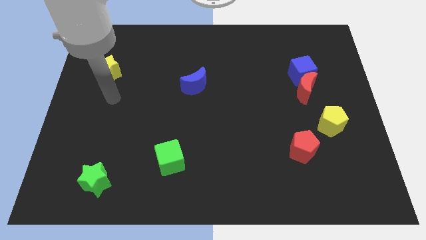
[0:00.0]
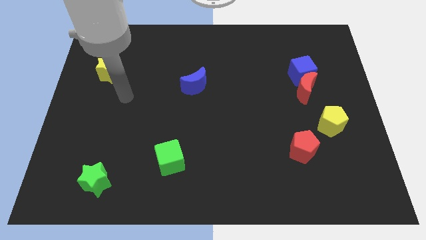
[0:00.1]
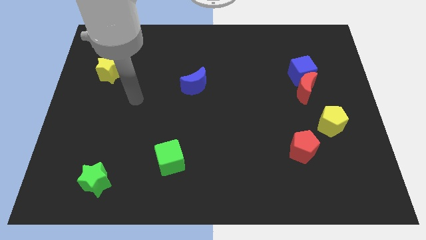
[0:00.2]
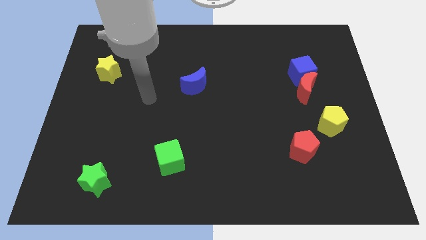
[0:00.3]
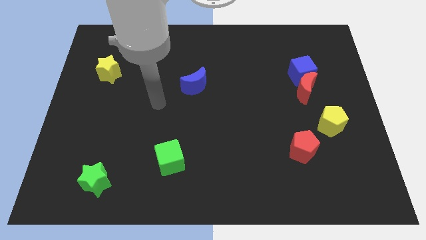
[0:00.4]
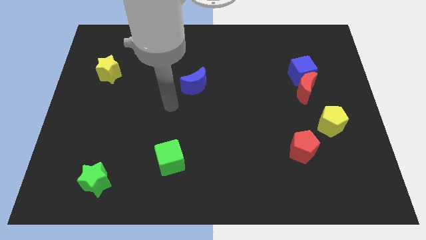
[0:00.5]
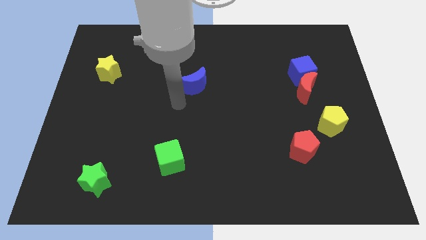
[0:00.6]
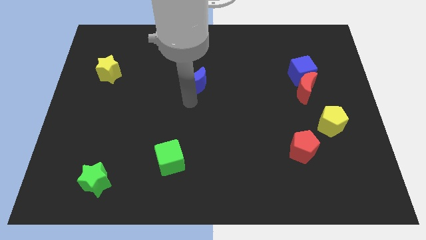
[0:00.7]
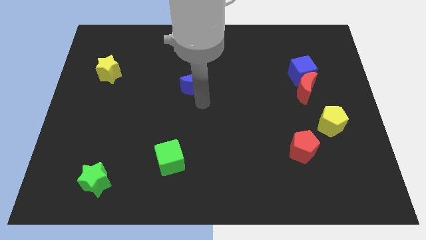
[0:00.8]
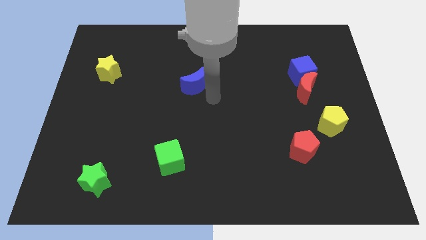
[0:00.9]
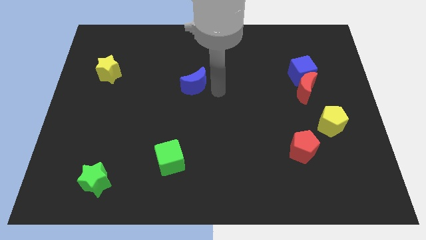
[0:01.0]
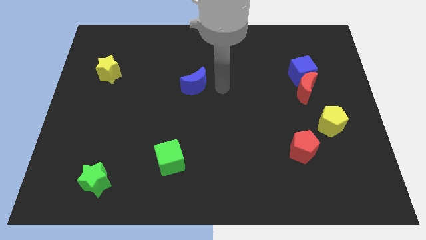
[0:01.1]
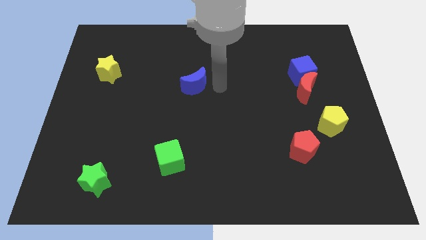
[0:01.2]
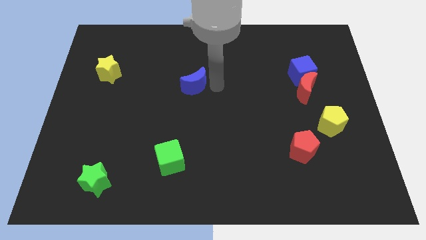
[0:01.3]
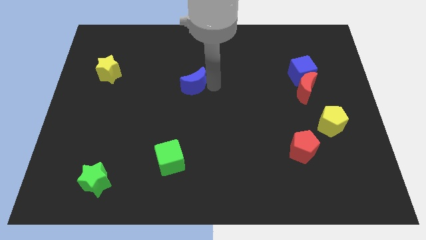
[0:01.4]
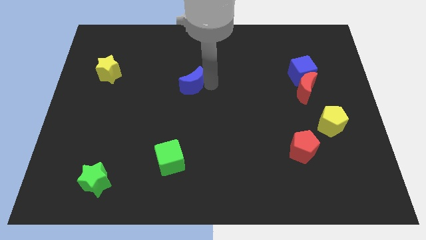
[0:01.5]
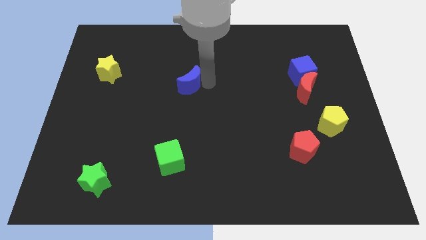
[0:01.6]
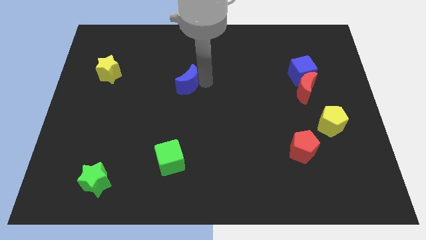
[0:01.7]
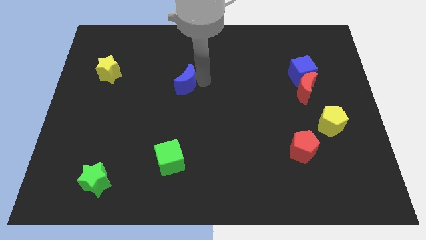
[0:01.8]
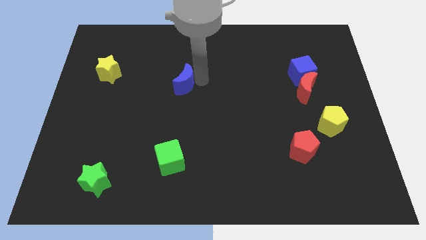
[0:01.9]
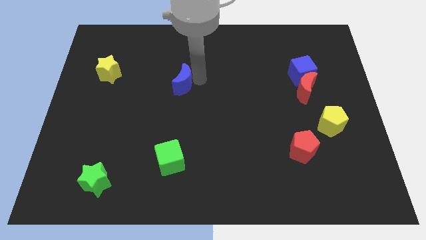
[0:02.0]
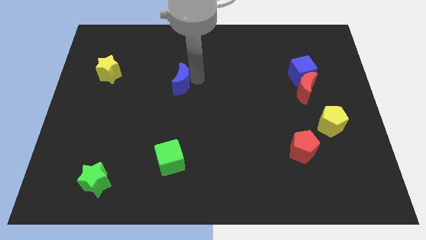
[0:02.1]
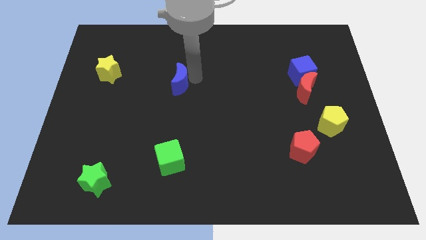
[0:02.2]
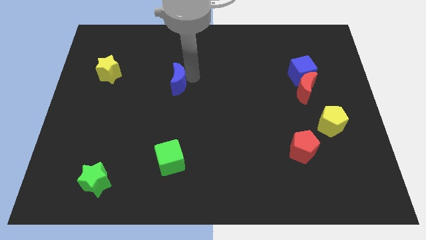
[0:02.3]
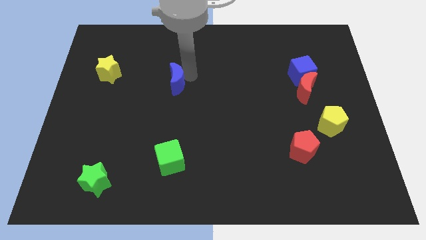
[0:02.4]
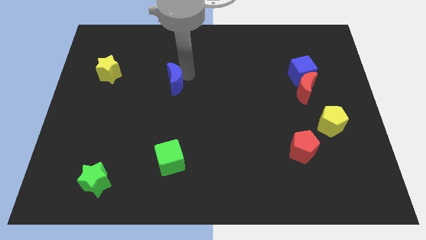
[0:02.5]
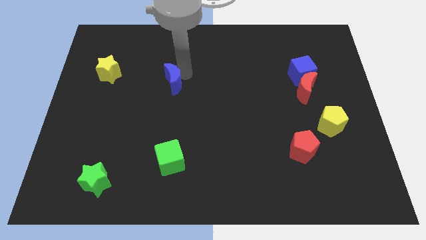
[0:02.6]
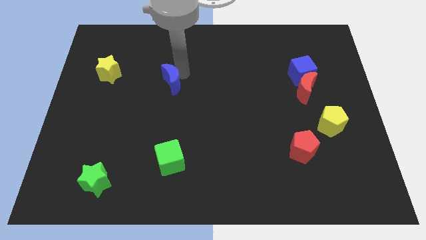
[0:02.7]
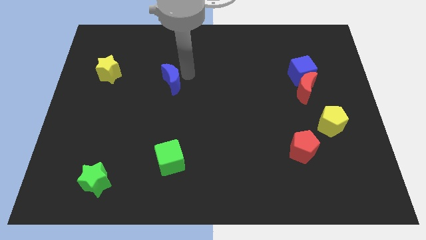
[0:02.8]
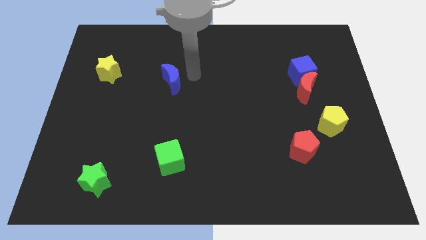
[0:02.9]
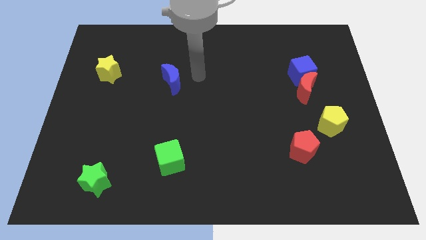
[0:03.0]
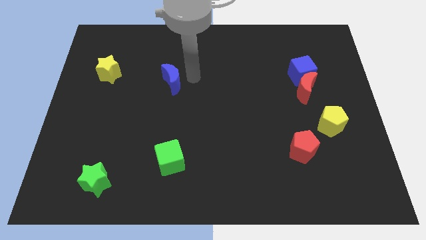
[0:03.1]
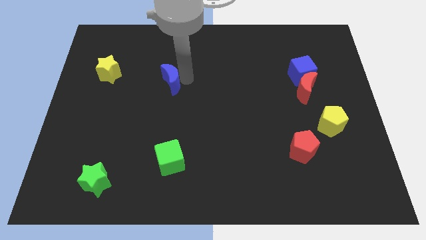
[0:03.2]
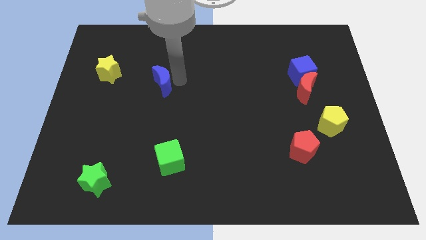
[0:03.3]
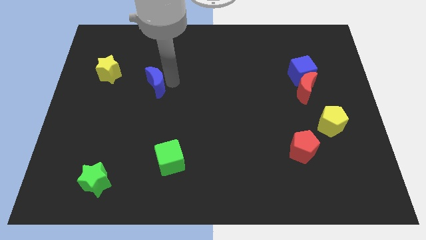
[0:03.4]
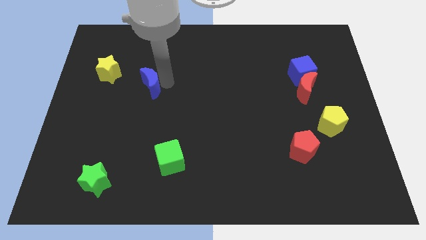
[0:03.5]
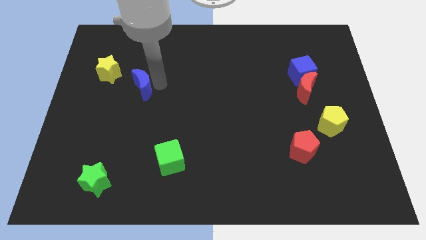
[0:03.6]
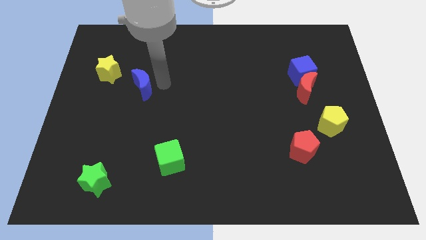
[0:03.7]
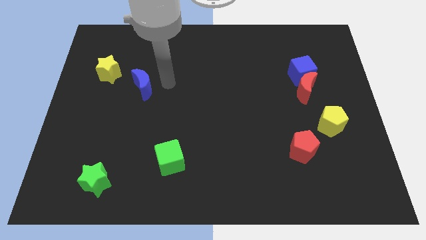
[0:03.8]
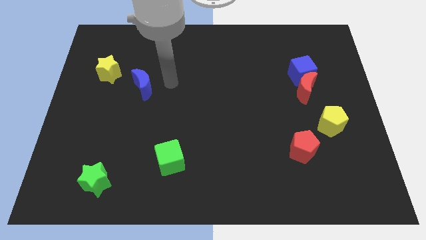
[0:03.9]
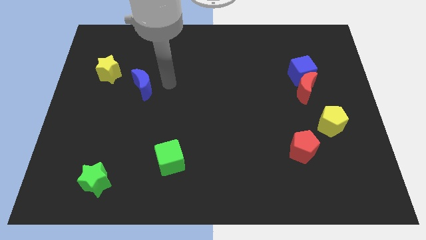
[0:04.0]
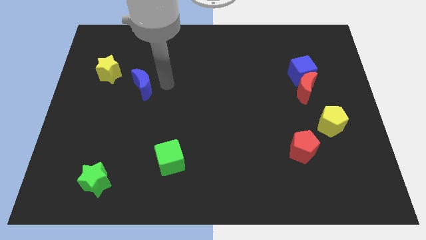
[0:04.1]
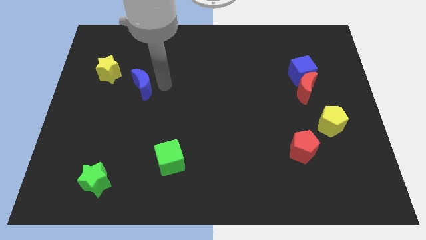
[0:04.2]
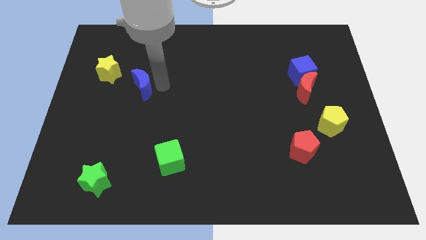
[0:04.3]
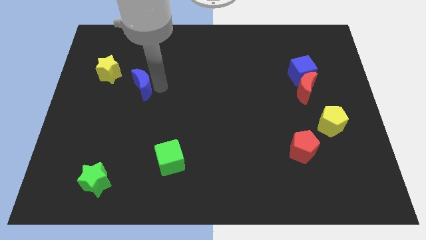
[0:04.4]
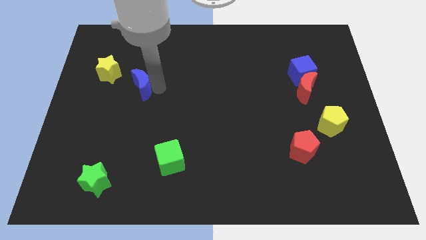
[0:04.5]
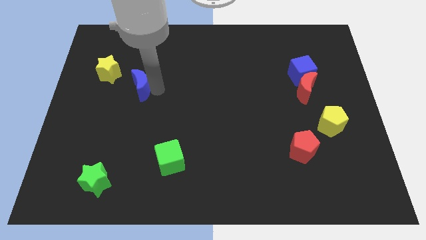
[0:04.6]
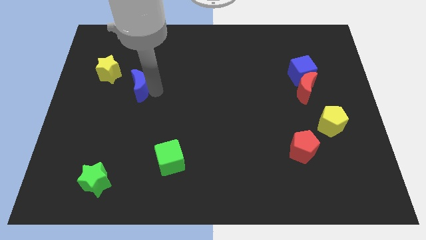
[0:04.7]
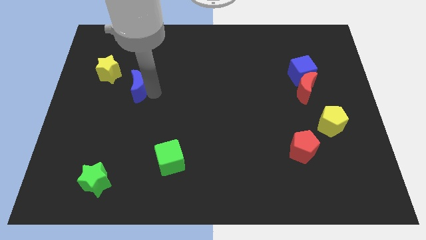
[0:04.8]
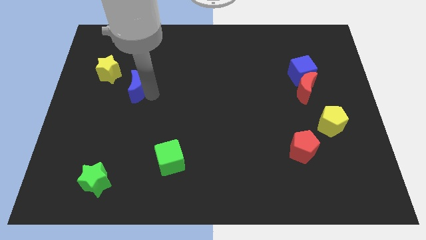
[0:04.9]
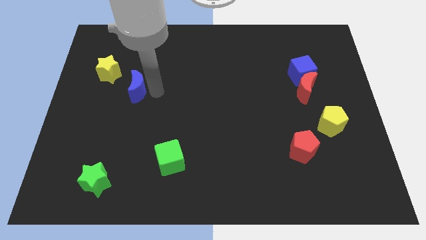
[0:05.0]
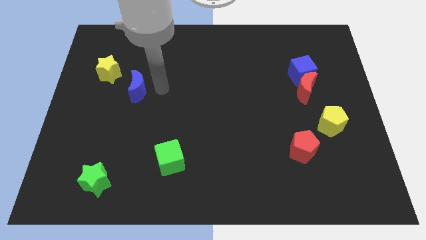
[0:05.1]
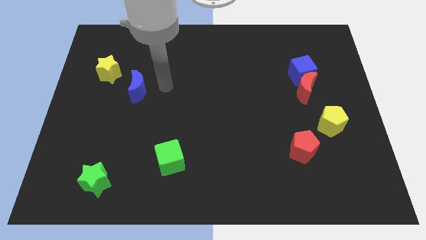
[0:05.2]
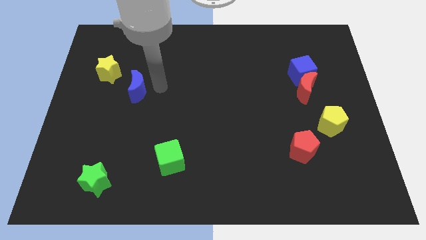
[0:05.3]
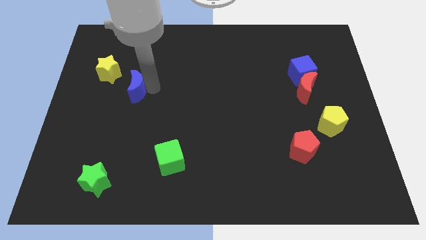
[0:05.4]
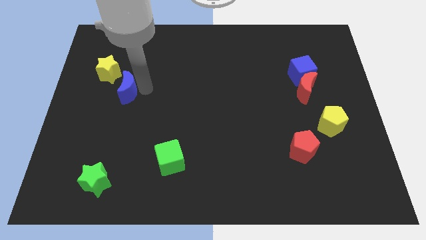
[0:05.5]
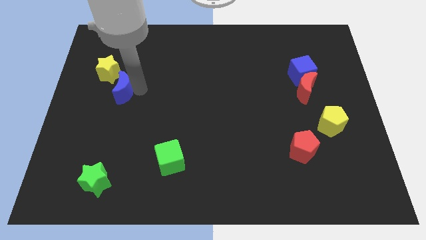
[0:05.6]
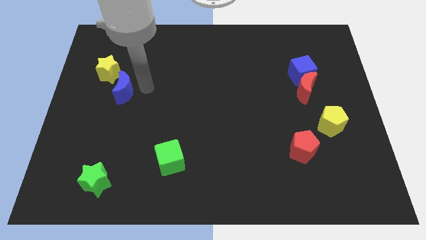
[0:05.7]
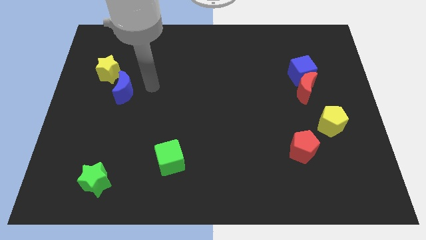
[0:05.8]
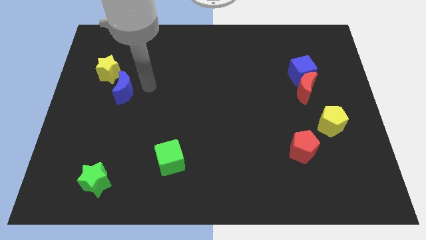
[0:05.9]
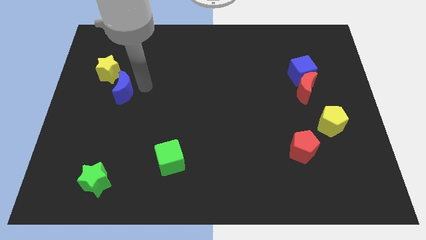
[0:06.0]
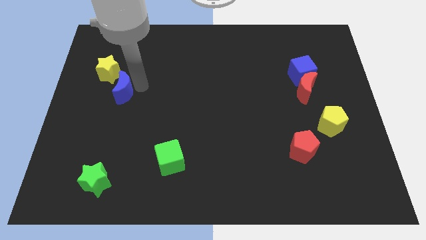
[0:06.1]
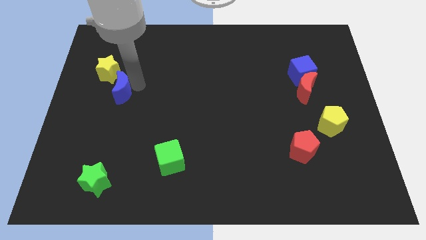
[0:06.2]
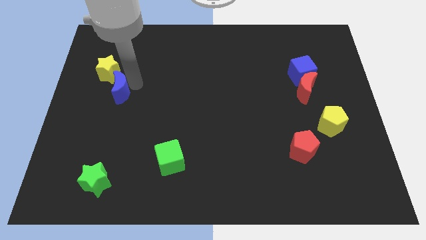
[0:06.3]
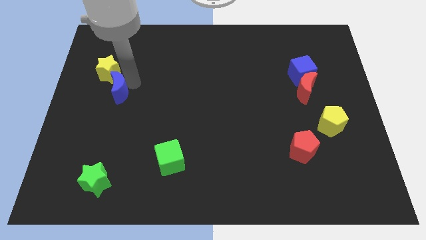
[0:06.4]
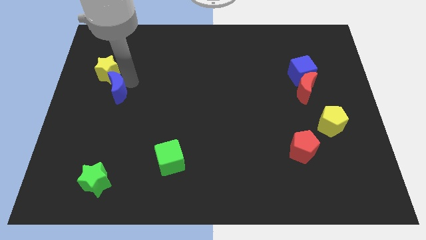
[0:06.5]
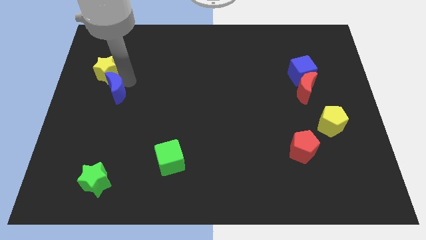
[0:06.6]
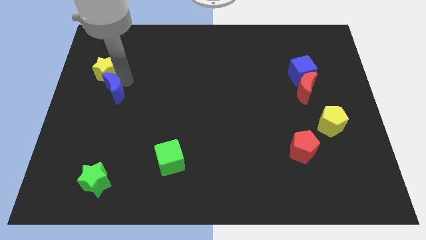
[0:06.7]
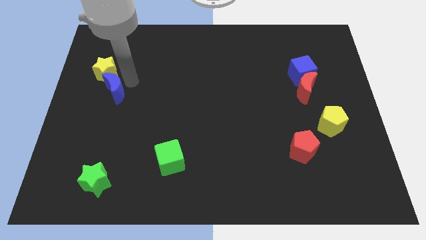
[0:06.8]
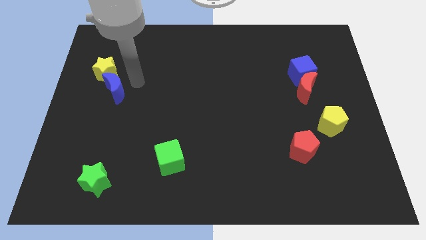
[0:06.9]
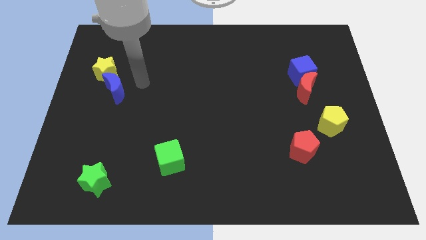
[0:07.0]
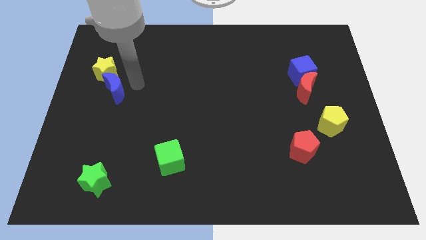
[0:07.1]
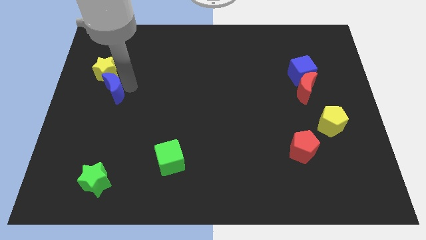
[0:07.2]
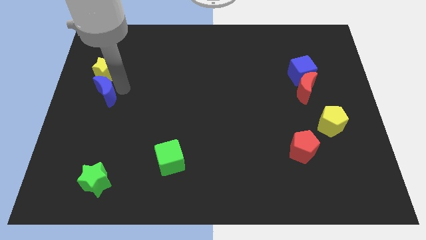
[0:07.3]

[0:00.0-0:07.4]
slide the blue moon to the left side of the board
